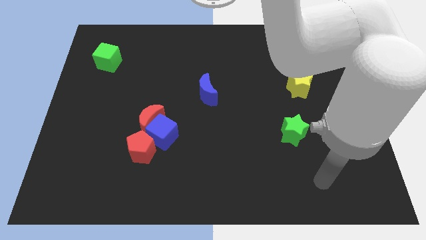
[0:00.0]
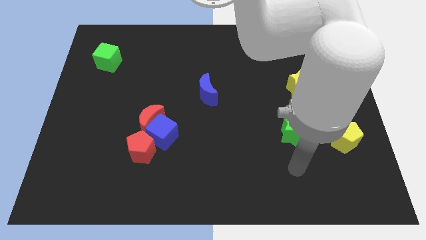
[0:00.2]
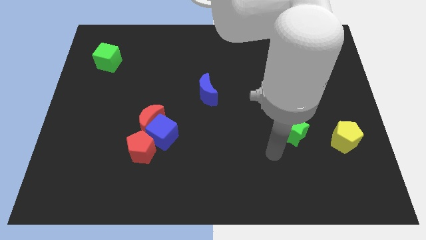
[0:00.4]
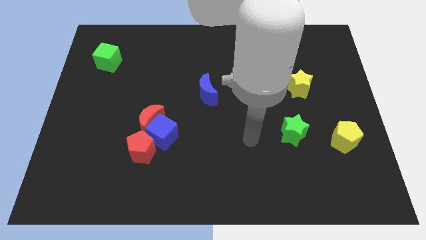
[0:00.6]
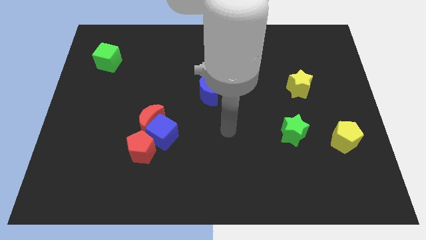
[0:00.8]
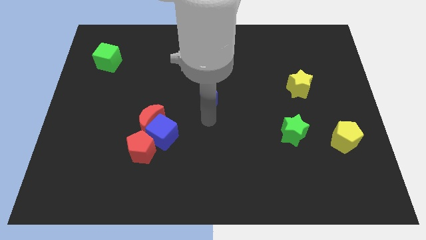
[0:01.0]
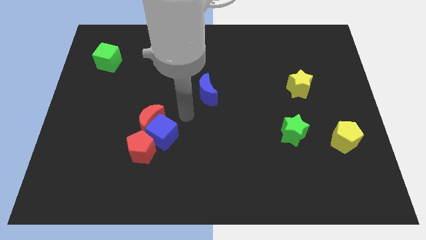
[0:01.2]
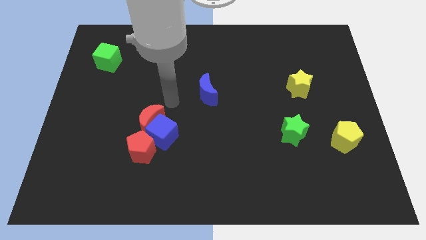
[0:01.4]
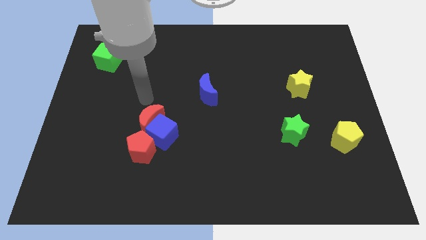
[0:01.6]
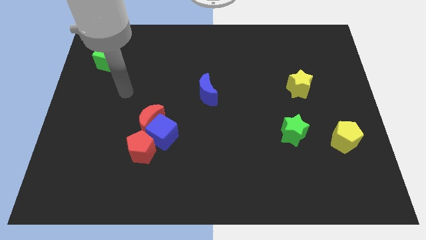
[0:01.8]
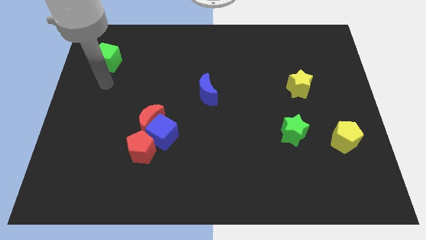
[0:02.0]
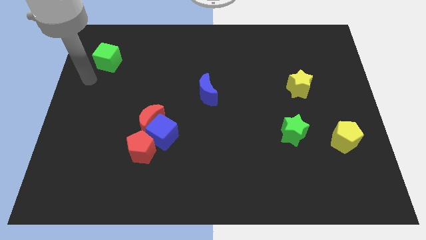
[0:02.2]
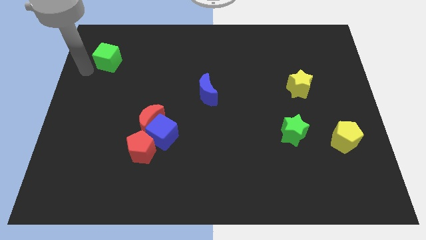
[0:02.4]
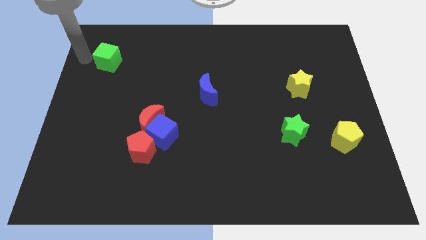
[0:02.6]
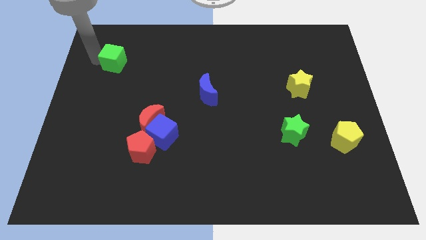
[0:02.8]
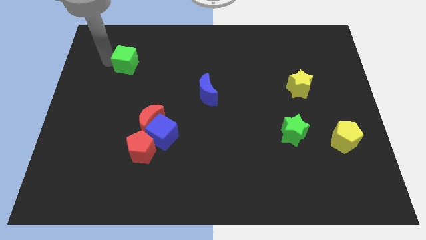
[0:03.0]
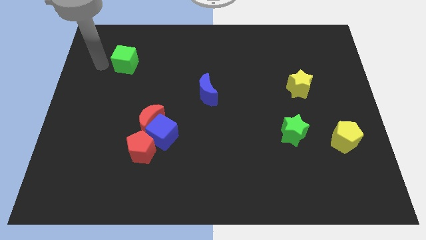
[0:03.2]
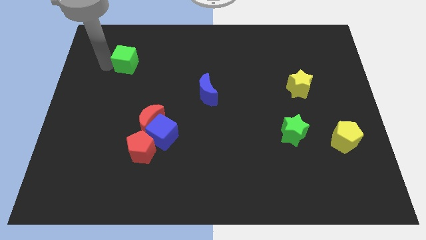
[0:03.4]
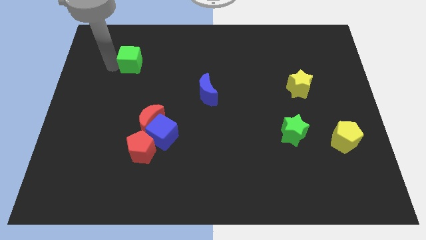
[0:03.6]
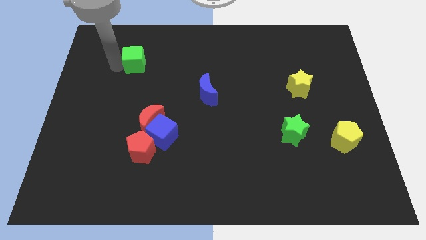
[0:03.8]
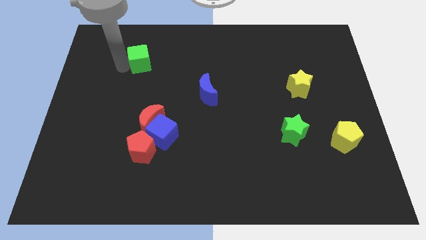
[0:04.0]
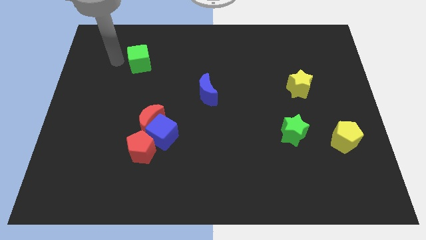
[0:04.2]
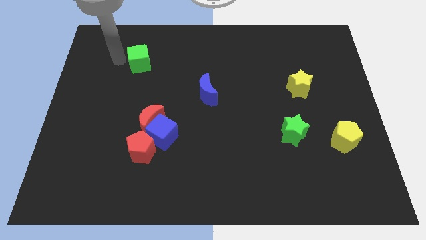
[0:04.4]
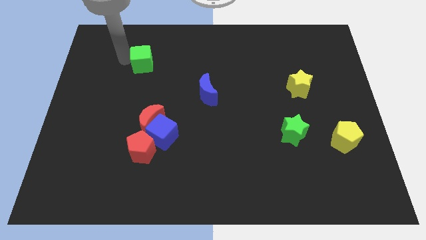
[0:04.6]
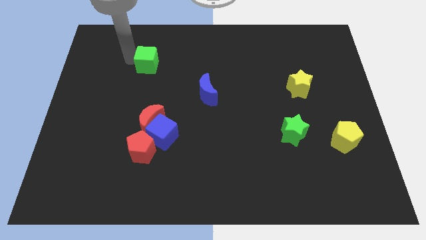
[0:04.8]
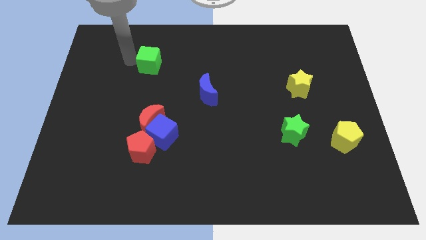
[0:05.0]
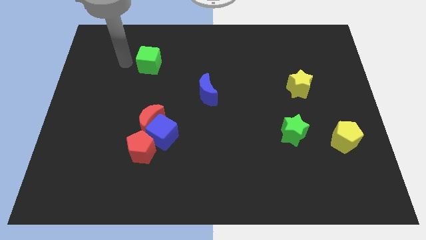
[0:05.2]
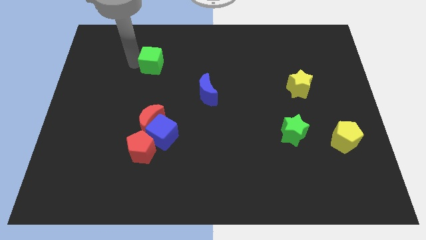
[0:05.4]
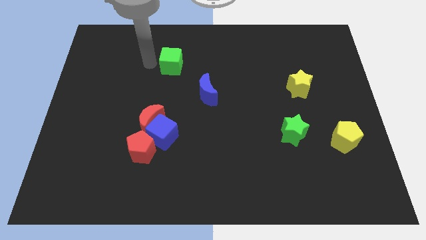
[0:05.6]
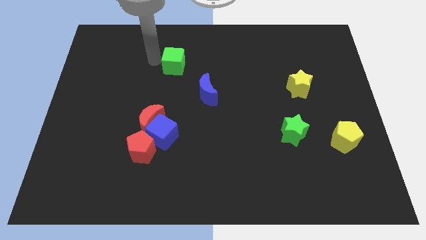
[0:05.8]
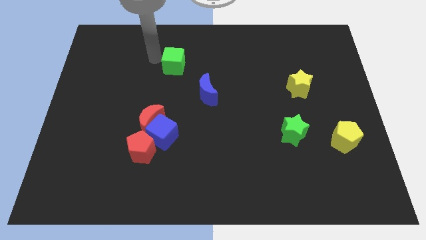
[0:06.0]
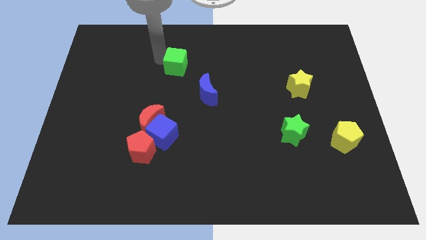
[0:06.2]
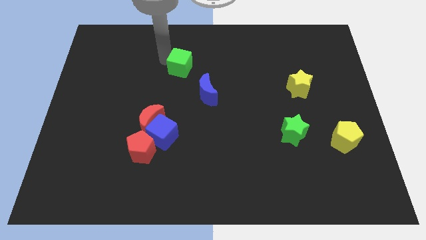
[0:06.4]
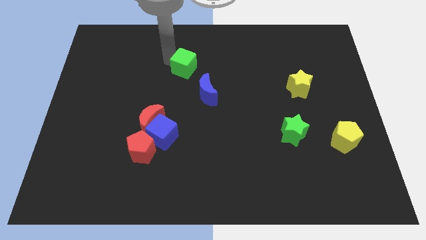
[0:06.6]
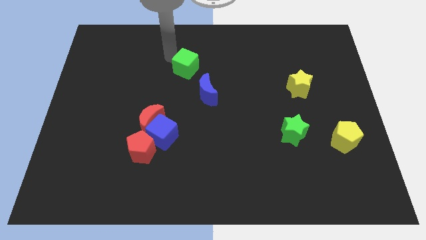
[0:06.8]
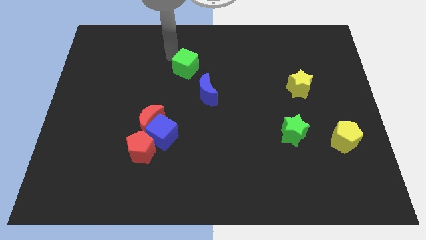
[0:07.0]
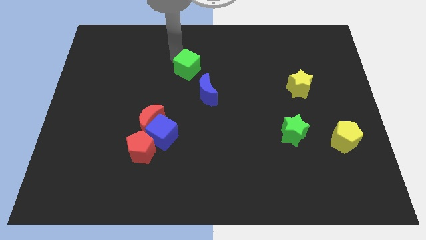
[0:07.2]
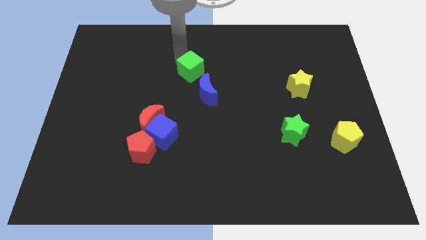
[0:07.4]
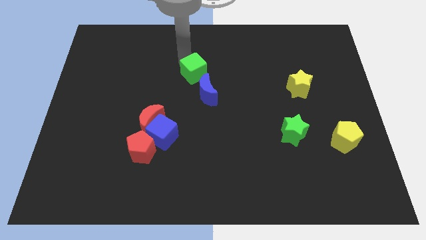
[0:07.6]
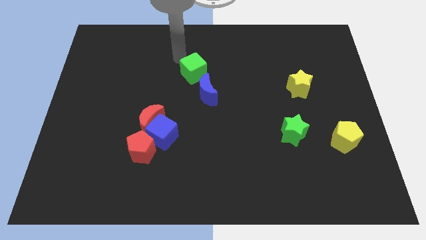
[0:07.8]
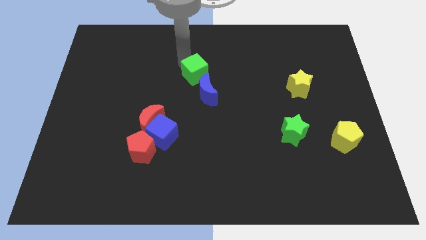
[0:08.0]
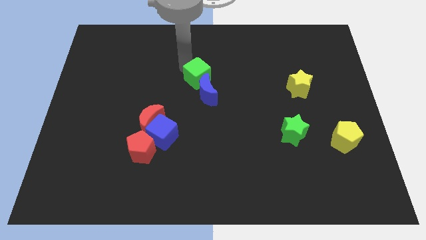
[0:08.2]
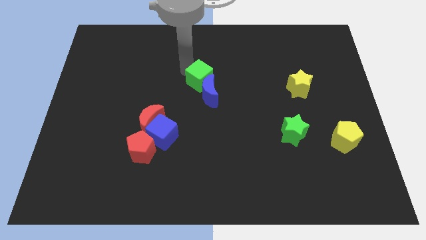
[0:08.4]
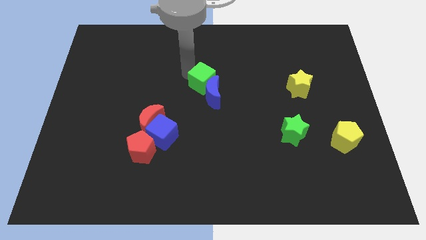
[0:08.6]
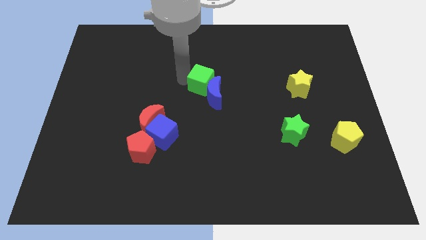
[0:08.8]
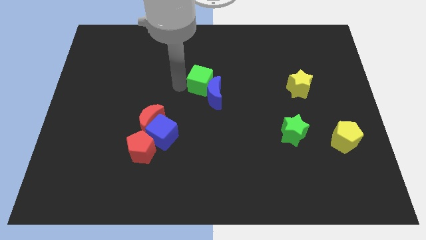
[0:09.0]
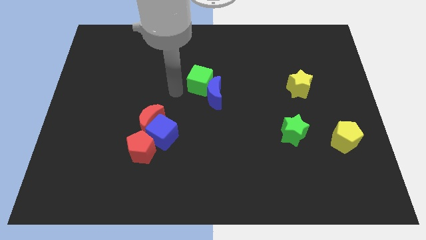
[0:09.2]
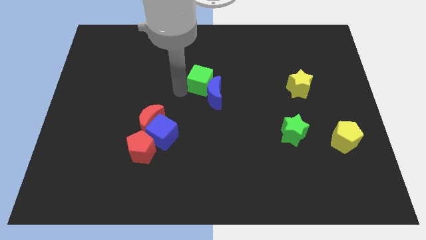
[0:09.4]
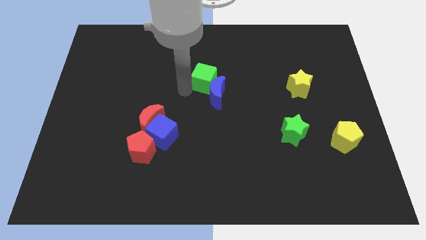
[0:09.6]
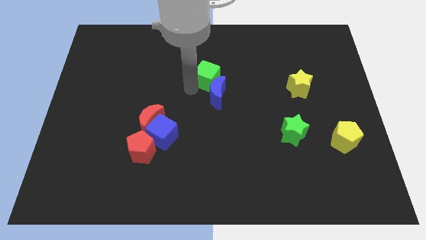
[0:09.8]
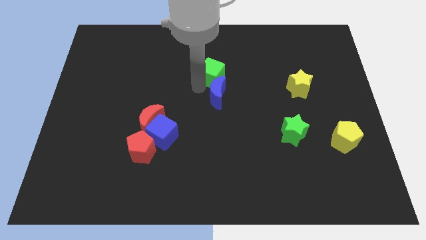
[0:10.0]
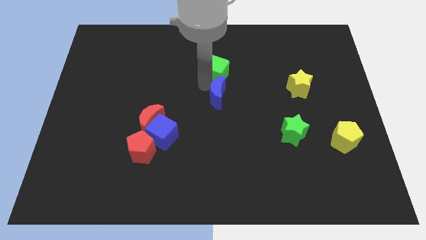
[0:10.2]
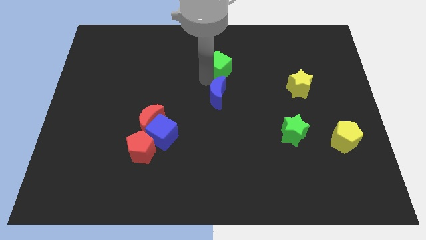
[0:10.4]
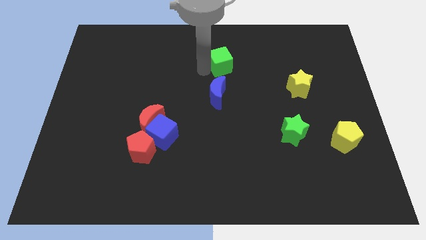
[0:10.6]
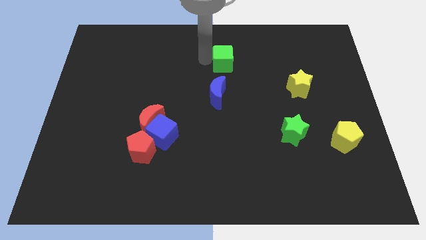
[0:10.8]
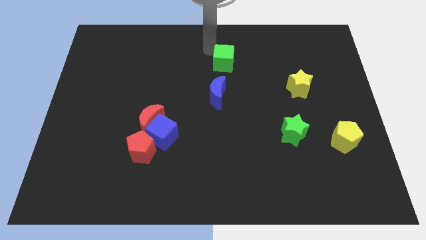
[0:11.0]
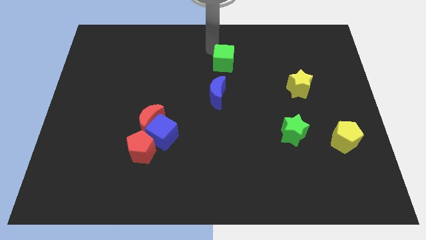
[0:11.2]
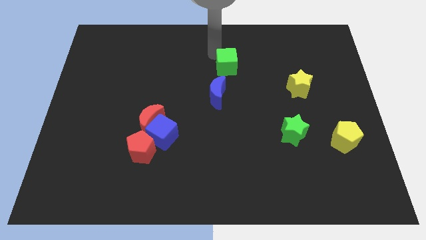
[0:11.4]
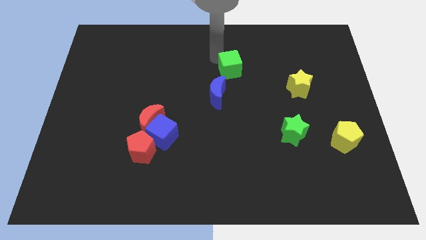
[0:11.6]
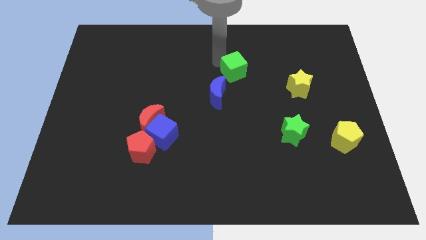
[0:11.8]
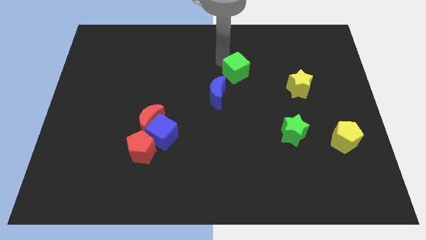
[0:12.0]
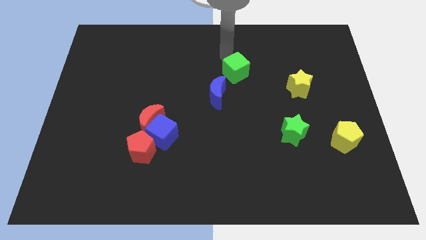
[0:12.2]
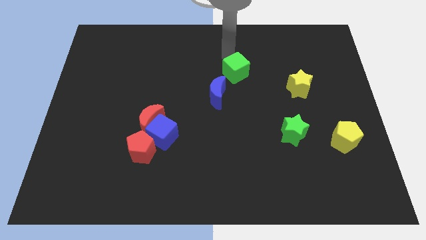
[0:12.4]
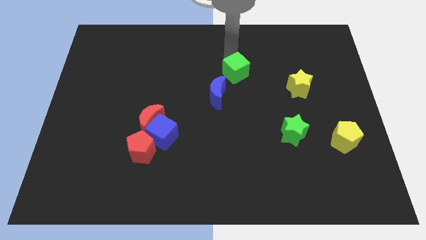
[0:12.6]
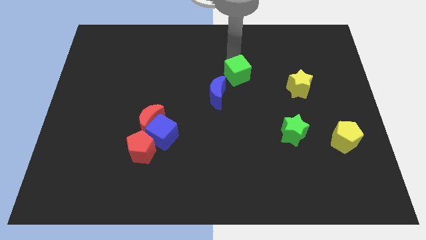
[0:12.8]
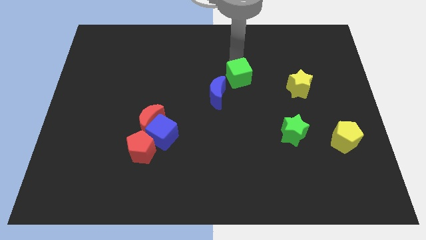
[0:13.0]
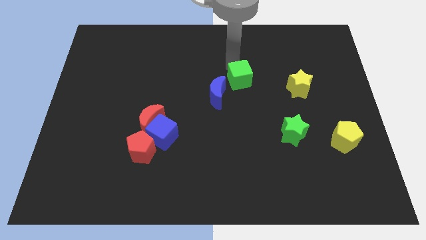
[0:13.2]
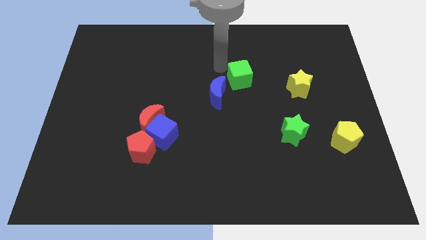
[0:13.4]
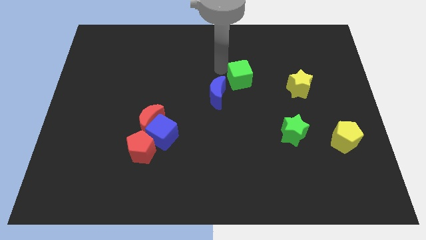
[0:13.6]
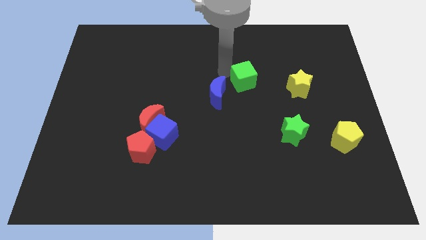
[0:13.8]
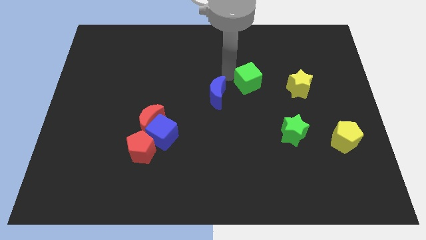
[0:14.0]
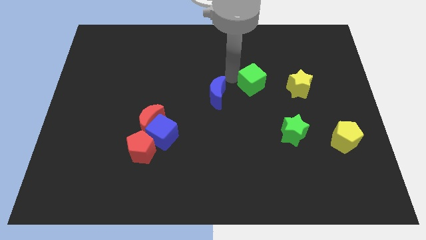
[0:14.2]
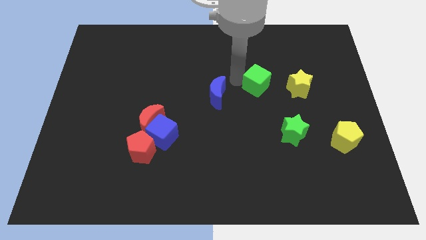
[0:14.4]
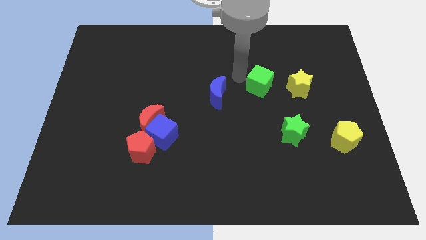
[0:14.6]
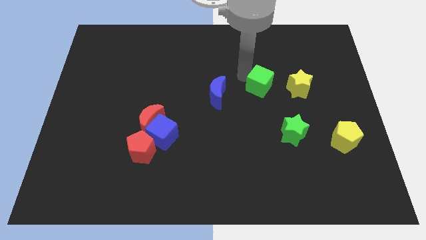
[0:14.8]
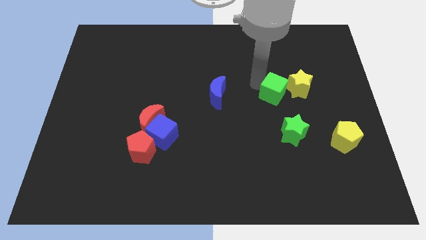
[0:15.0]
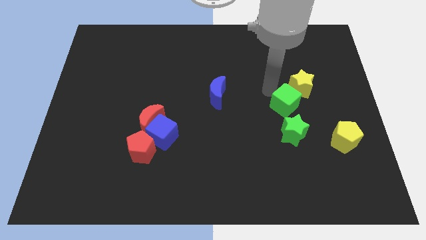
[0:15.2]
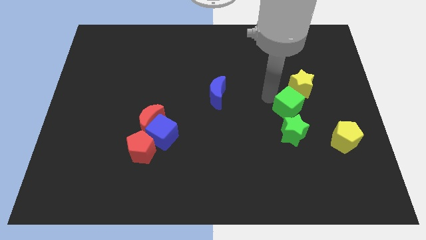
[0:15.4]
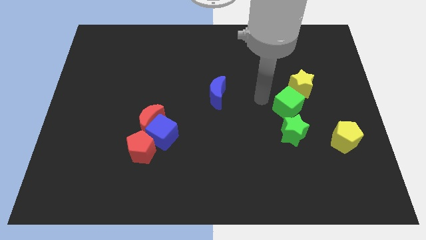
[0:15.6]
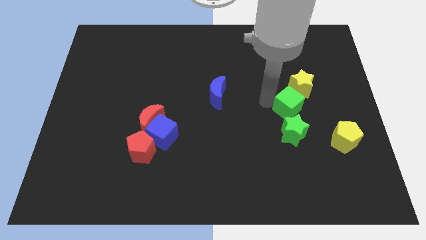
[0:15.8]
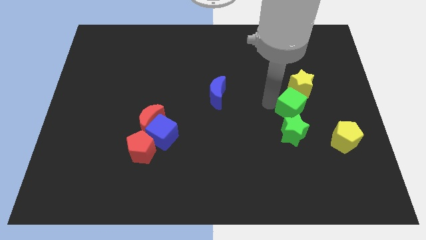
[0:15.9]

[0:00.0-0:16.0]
move the green cube diagonally up and to the right of the green star
